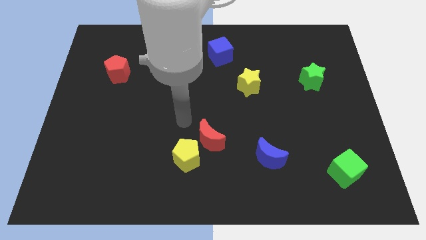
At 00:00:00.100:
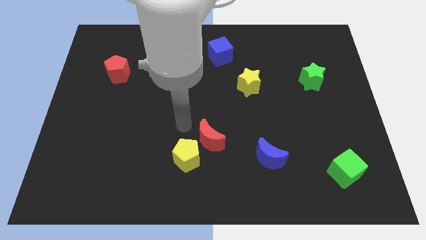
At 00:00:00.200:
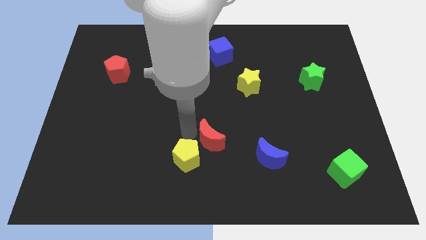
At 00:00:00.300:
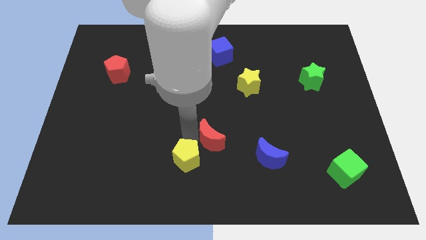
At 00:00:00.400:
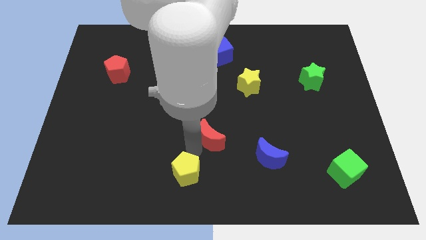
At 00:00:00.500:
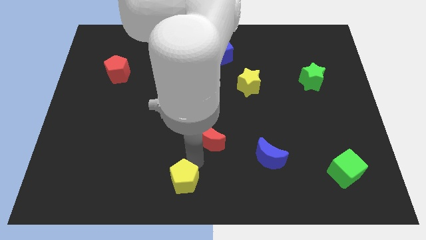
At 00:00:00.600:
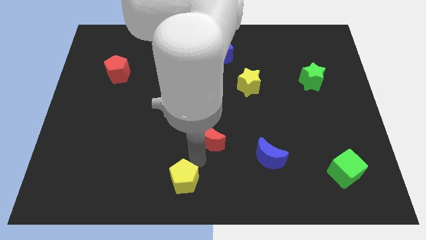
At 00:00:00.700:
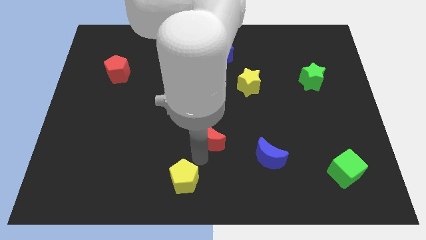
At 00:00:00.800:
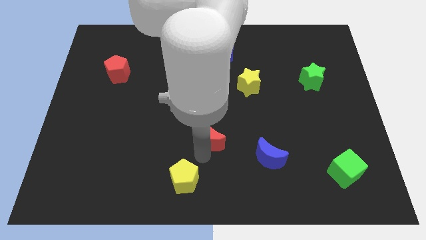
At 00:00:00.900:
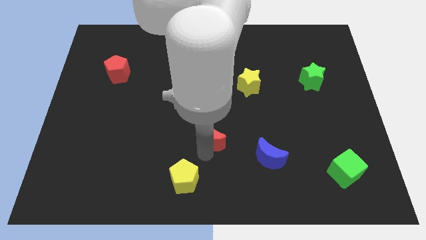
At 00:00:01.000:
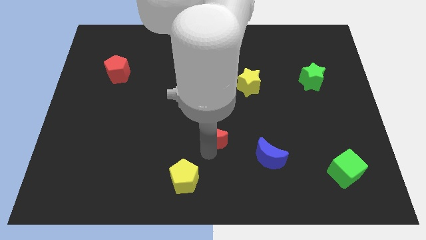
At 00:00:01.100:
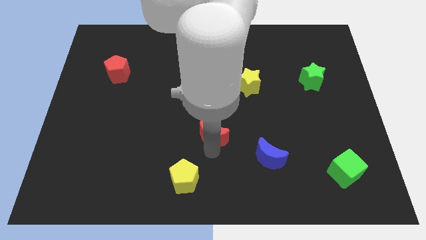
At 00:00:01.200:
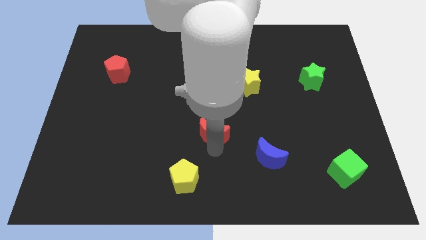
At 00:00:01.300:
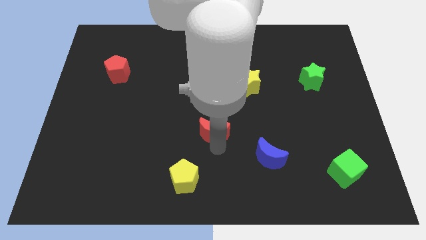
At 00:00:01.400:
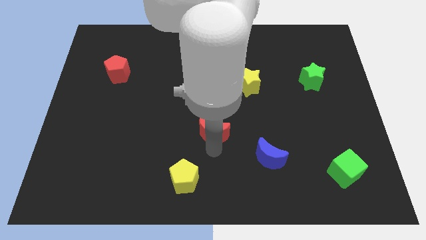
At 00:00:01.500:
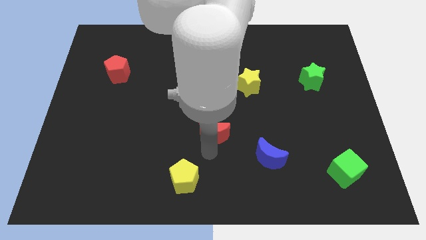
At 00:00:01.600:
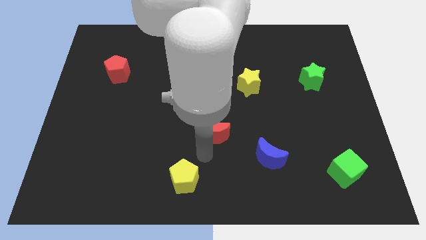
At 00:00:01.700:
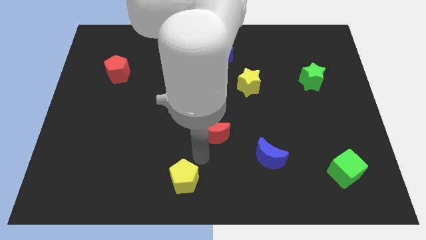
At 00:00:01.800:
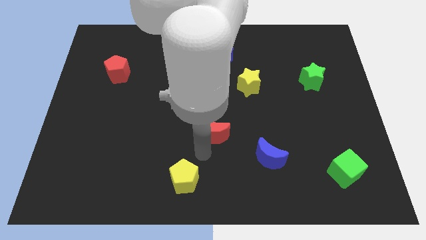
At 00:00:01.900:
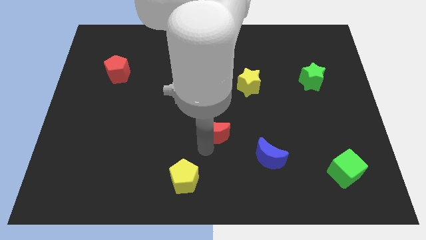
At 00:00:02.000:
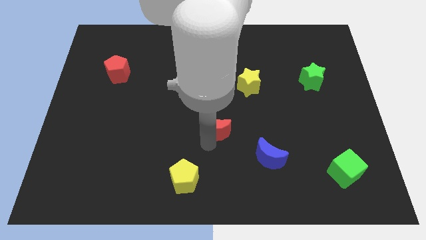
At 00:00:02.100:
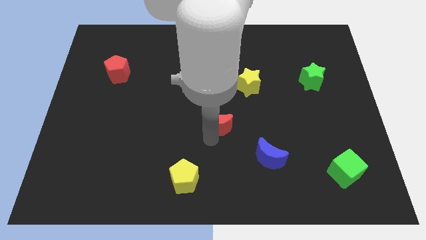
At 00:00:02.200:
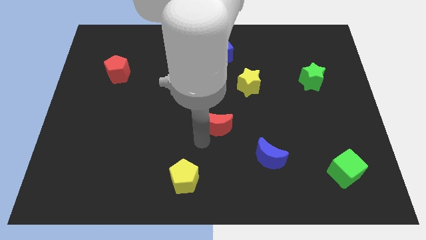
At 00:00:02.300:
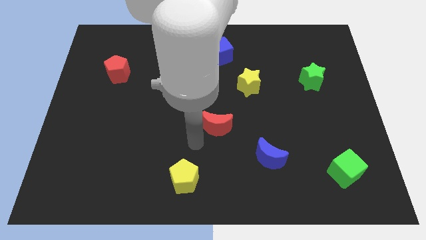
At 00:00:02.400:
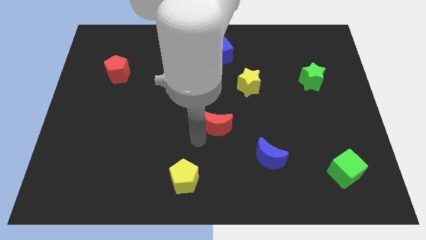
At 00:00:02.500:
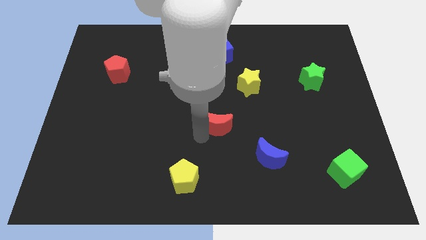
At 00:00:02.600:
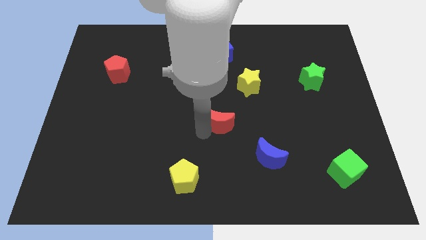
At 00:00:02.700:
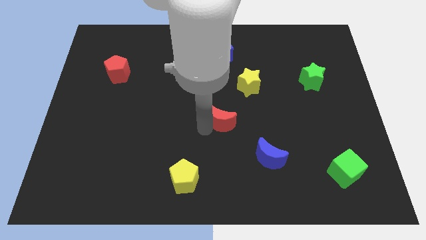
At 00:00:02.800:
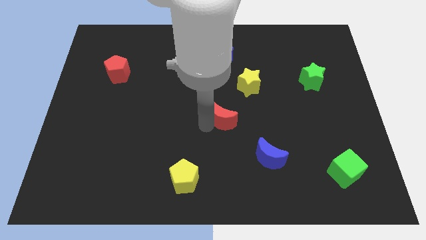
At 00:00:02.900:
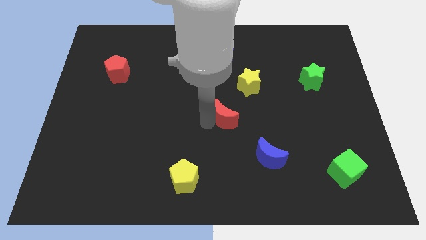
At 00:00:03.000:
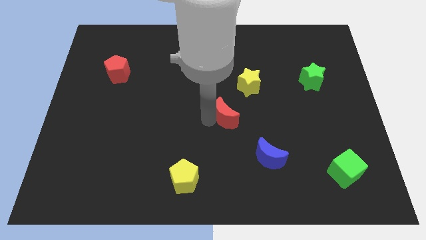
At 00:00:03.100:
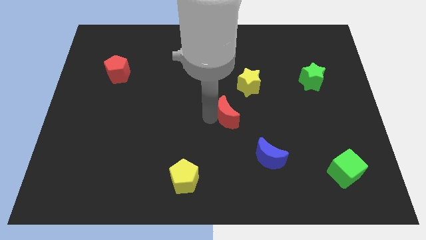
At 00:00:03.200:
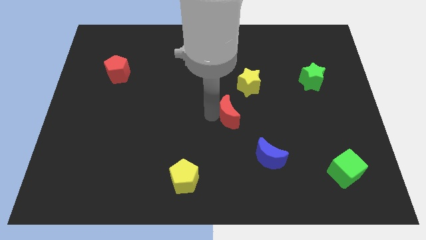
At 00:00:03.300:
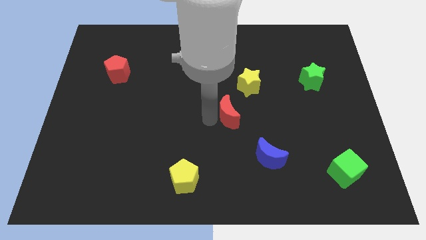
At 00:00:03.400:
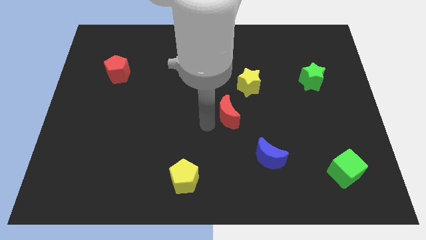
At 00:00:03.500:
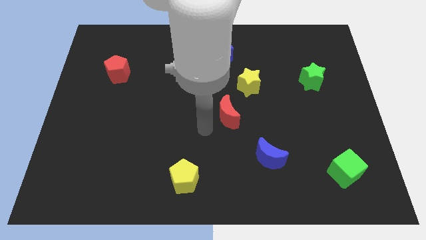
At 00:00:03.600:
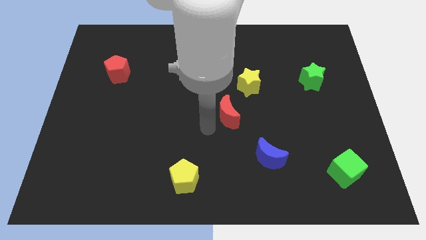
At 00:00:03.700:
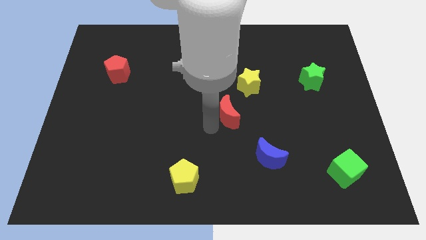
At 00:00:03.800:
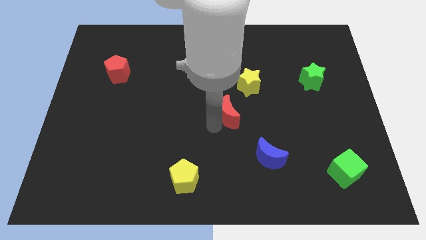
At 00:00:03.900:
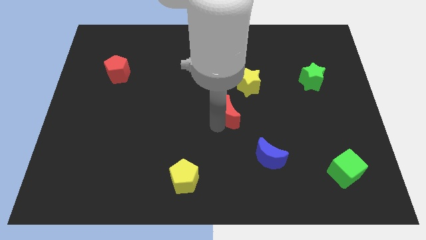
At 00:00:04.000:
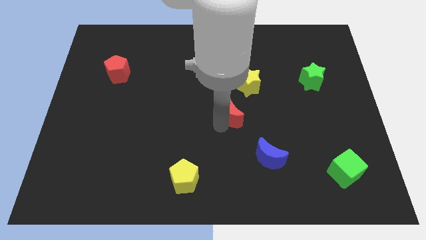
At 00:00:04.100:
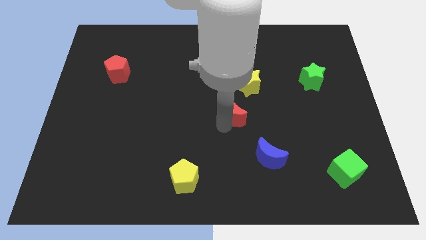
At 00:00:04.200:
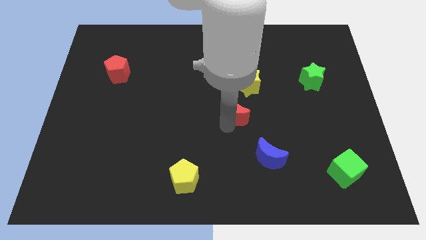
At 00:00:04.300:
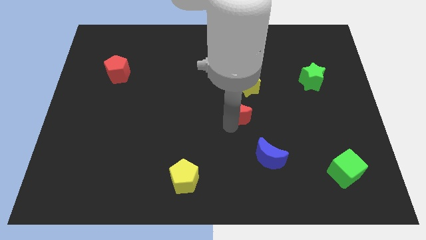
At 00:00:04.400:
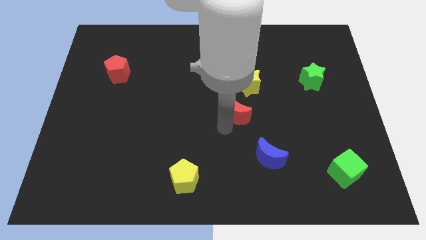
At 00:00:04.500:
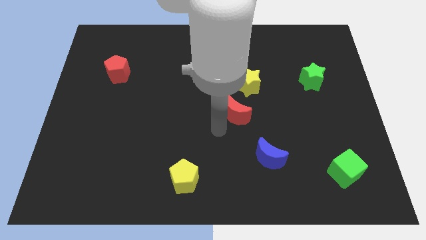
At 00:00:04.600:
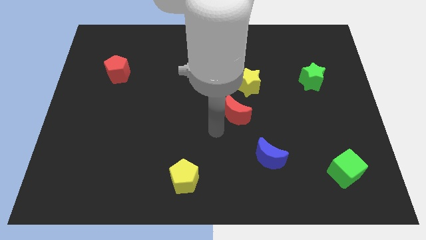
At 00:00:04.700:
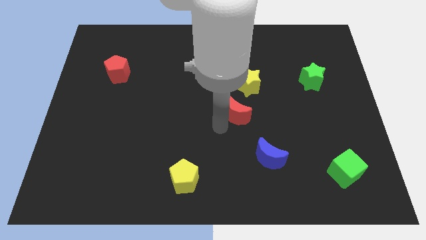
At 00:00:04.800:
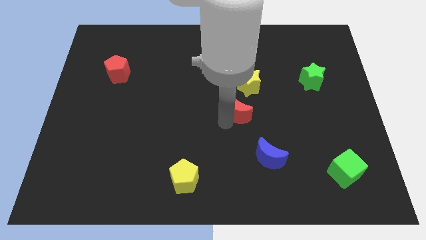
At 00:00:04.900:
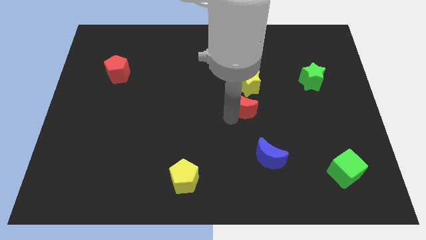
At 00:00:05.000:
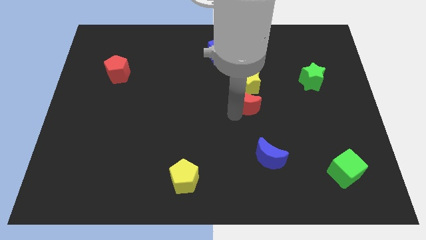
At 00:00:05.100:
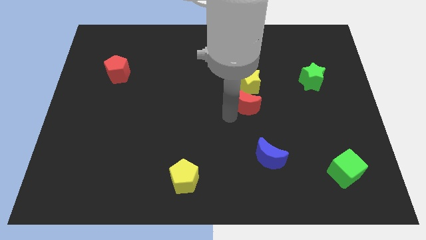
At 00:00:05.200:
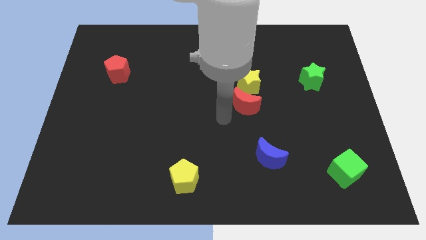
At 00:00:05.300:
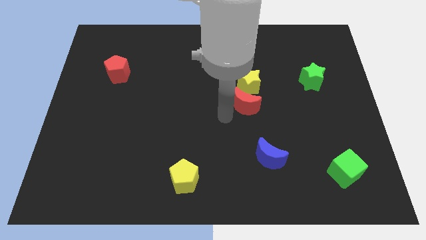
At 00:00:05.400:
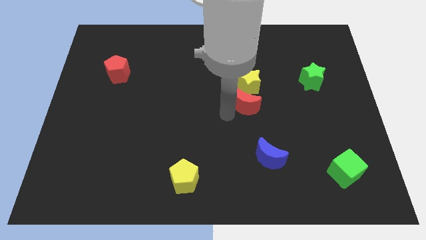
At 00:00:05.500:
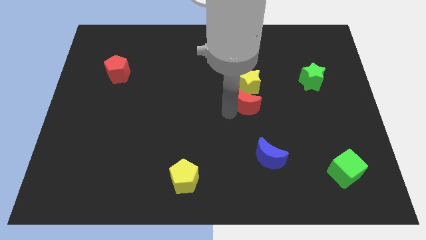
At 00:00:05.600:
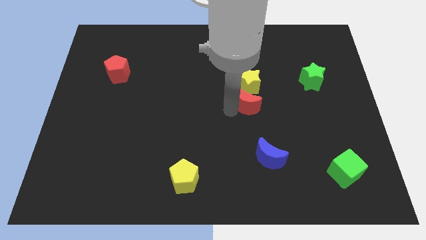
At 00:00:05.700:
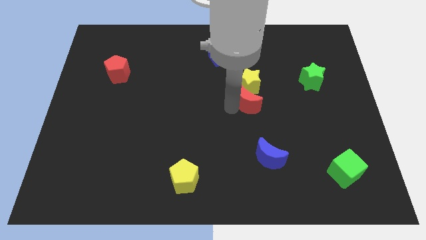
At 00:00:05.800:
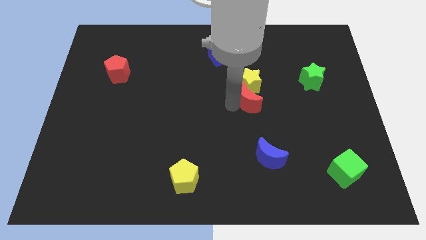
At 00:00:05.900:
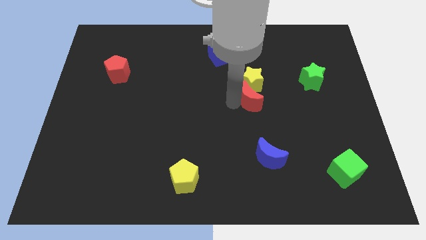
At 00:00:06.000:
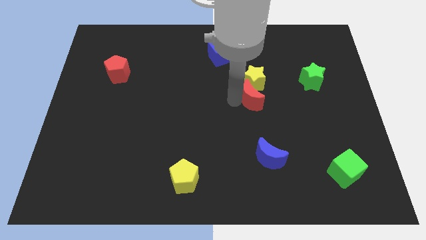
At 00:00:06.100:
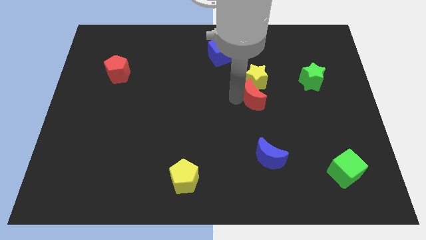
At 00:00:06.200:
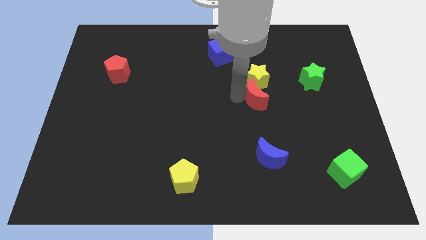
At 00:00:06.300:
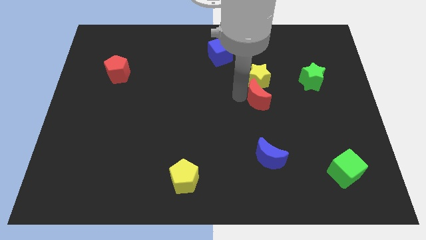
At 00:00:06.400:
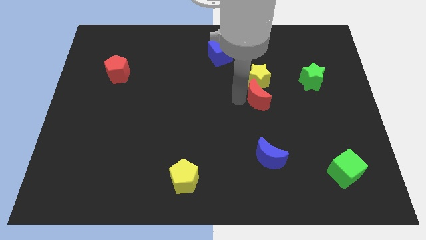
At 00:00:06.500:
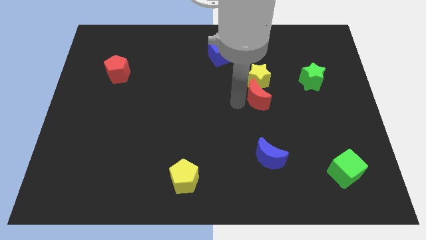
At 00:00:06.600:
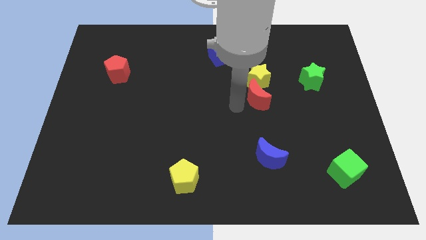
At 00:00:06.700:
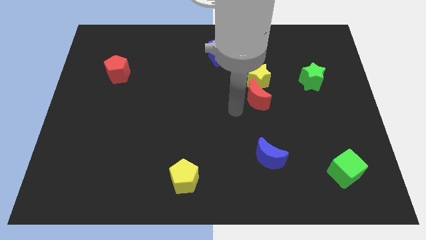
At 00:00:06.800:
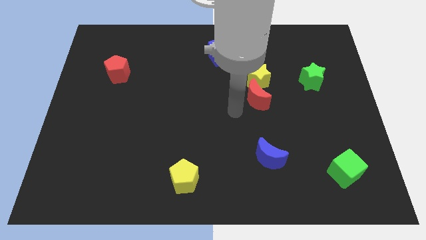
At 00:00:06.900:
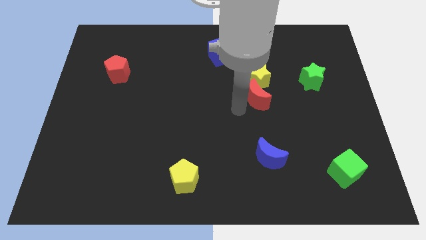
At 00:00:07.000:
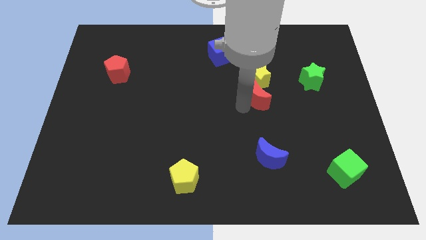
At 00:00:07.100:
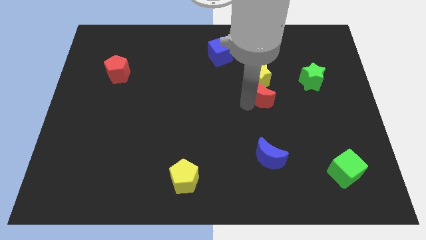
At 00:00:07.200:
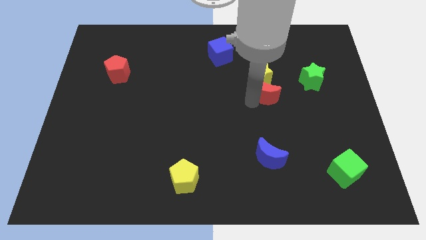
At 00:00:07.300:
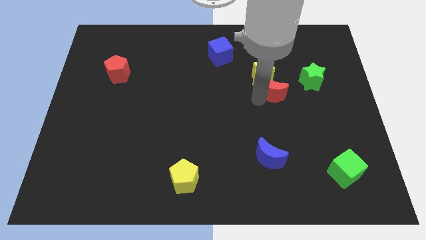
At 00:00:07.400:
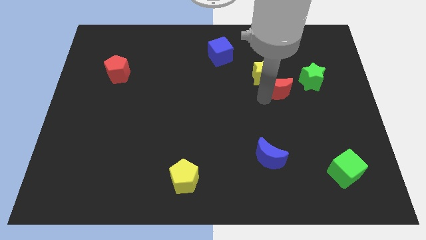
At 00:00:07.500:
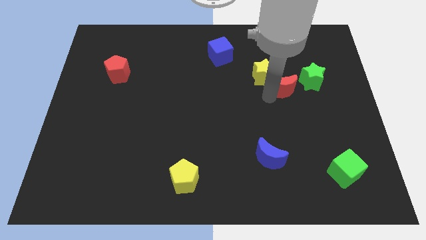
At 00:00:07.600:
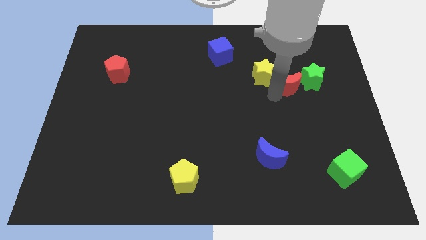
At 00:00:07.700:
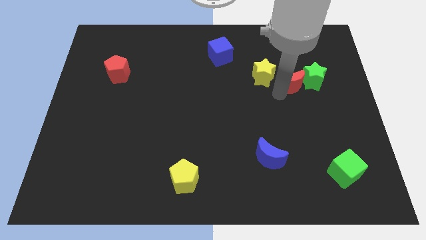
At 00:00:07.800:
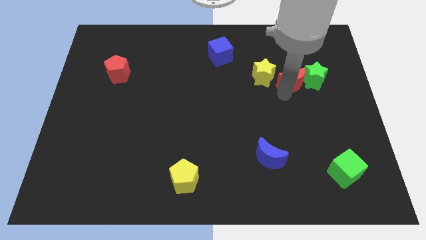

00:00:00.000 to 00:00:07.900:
put the red moon to the top left of the green star
